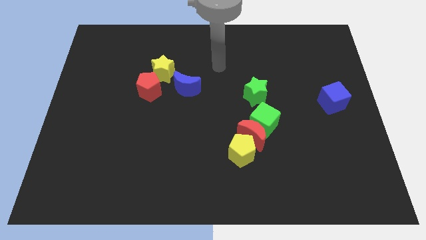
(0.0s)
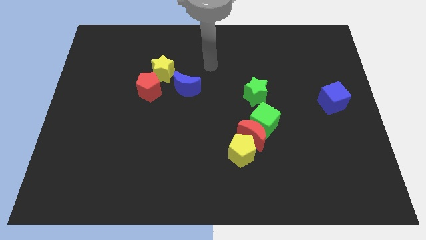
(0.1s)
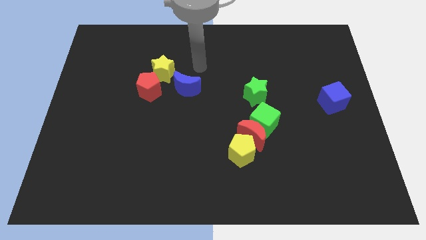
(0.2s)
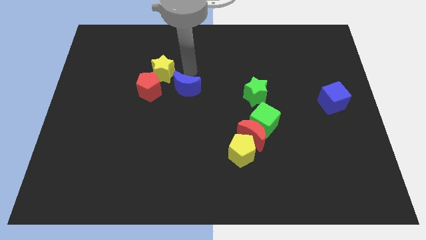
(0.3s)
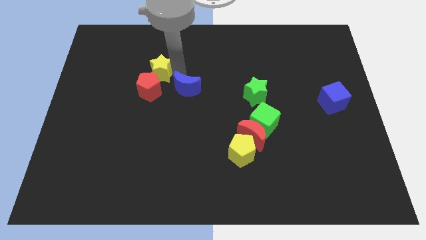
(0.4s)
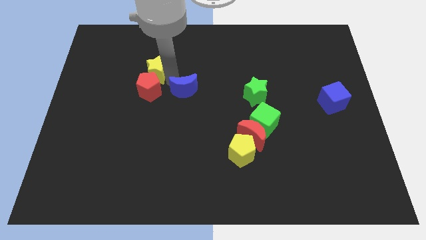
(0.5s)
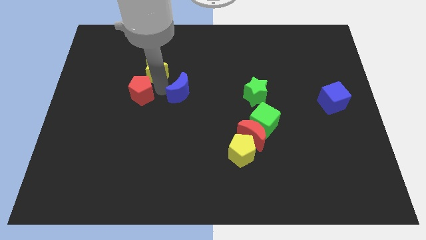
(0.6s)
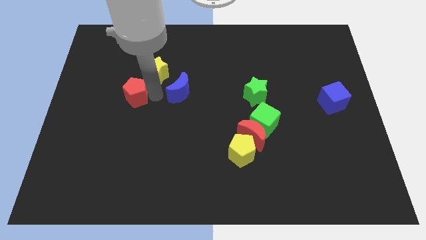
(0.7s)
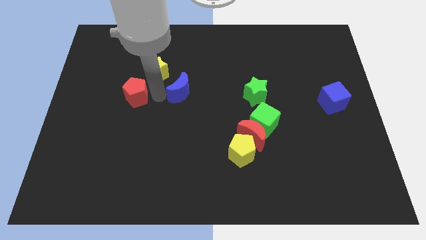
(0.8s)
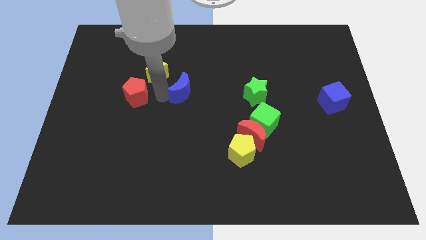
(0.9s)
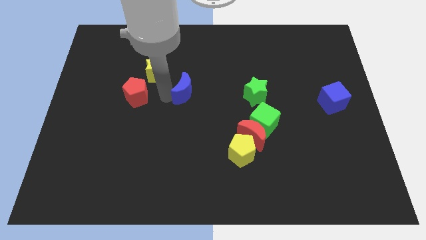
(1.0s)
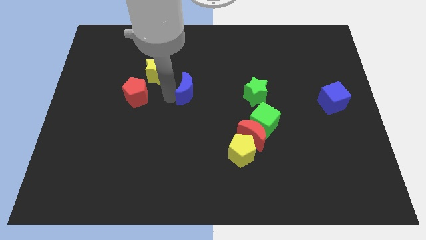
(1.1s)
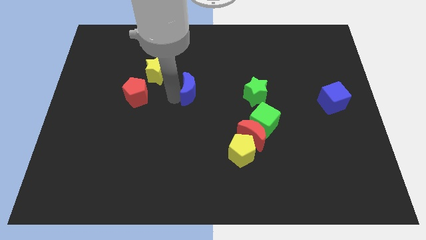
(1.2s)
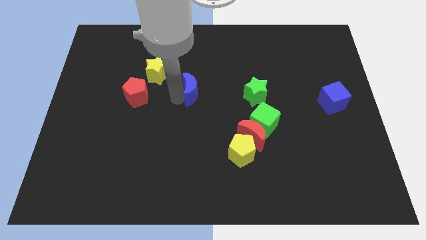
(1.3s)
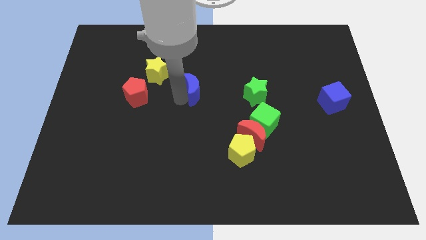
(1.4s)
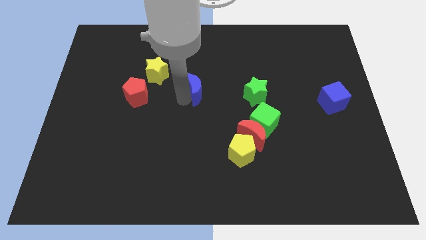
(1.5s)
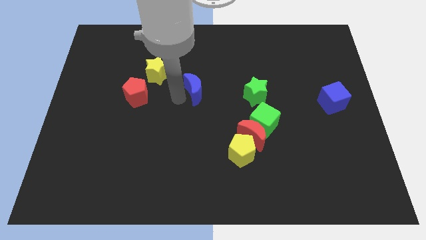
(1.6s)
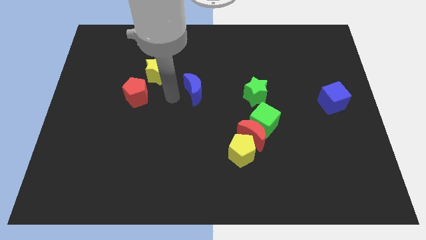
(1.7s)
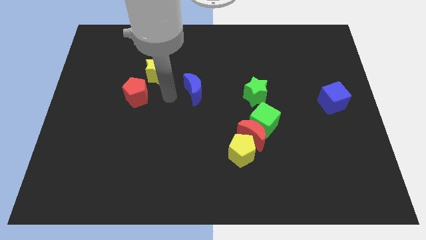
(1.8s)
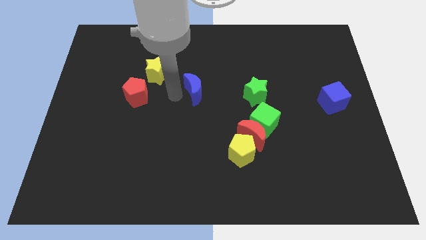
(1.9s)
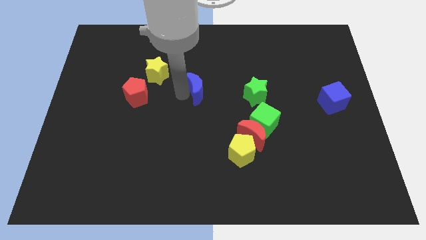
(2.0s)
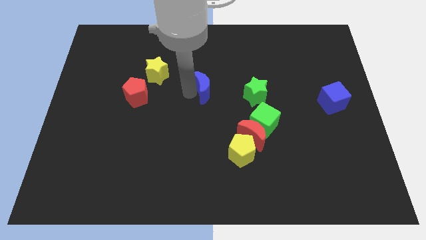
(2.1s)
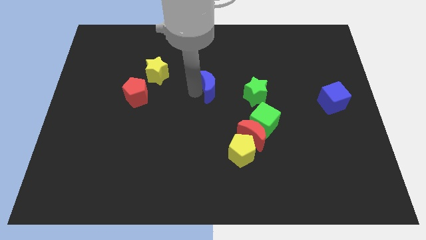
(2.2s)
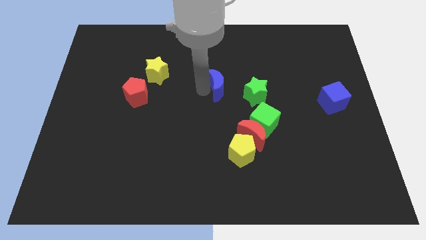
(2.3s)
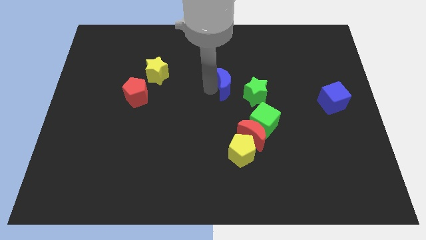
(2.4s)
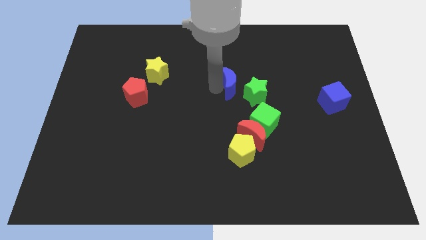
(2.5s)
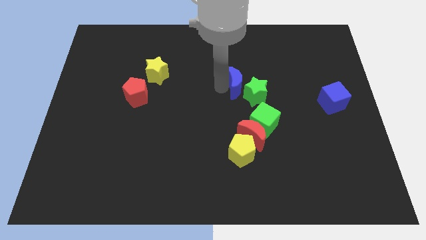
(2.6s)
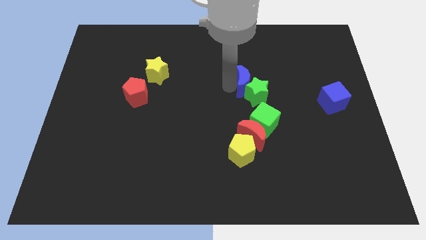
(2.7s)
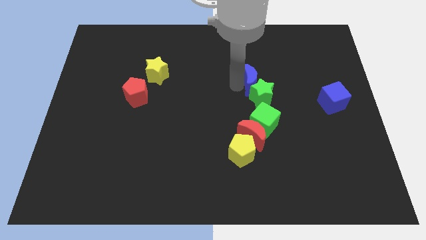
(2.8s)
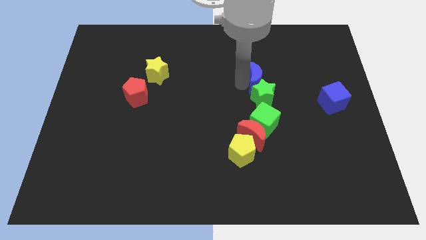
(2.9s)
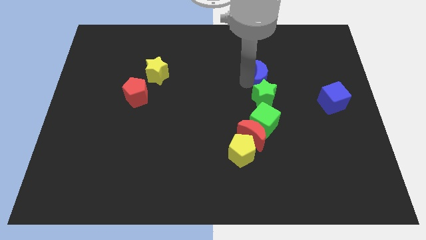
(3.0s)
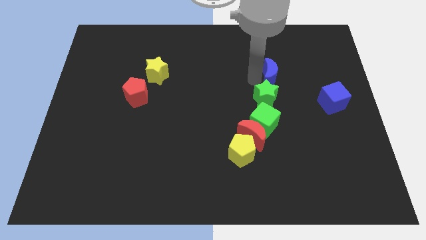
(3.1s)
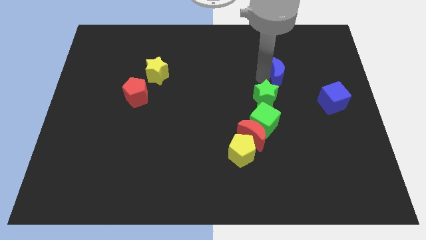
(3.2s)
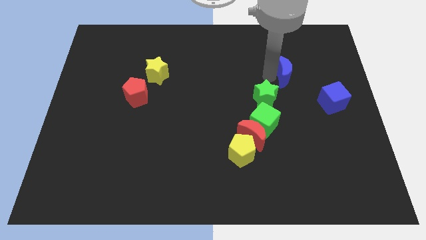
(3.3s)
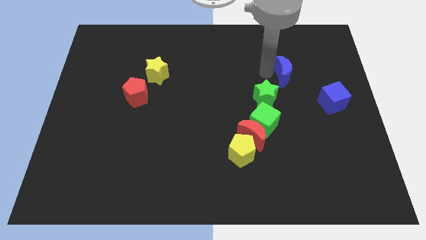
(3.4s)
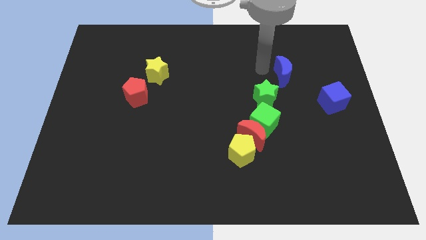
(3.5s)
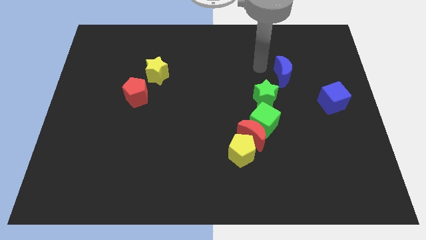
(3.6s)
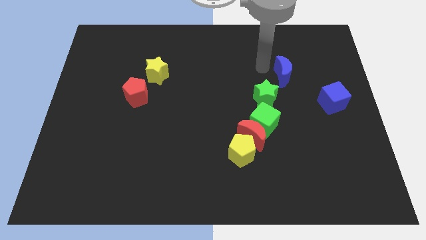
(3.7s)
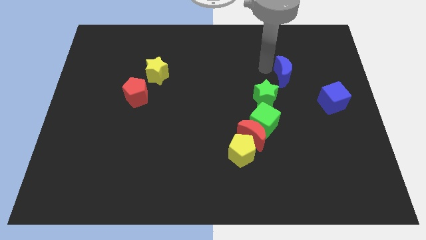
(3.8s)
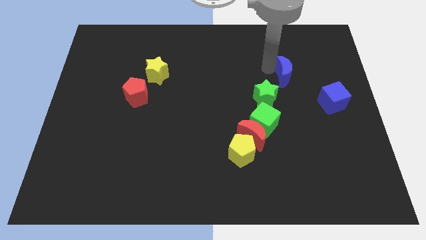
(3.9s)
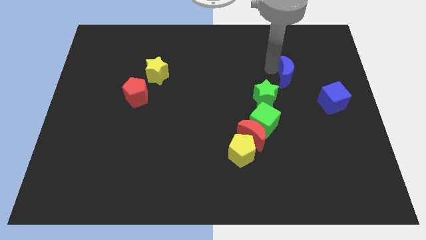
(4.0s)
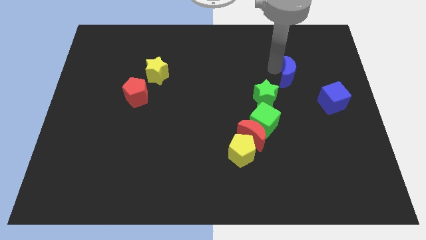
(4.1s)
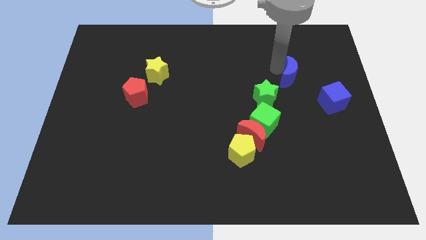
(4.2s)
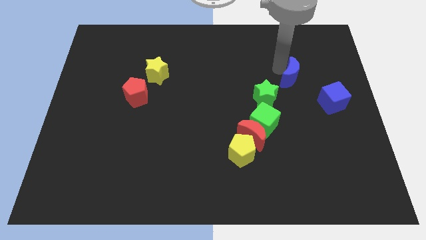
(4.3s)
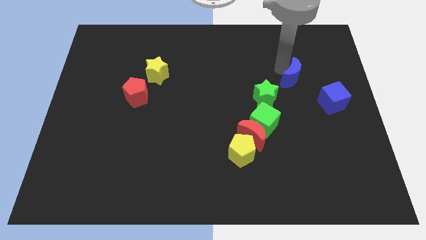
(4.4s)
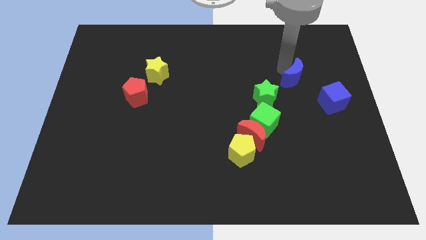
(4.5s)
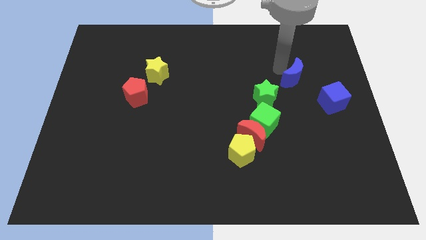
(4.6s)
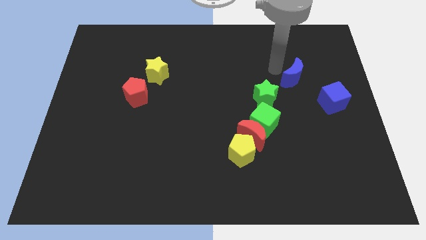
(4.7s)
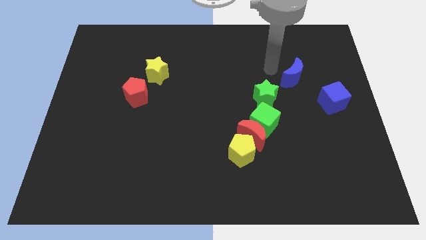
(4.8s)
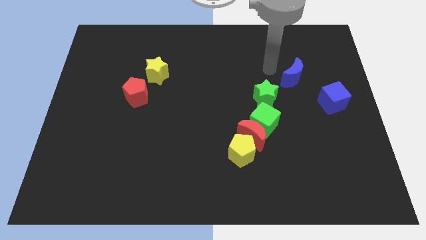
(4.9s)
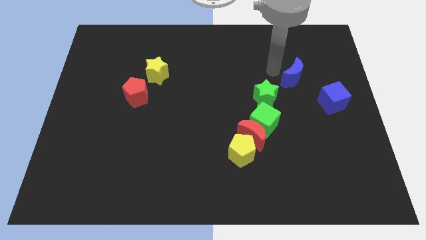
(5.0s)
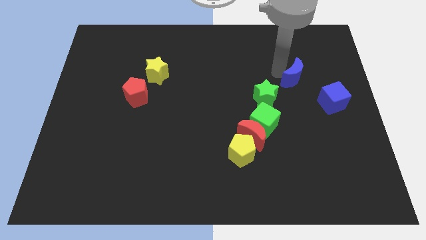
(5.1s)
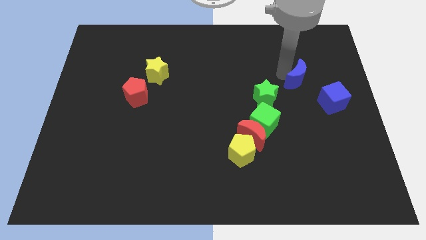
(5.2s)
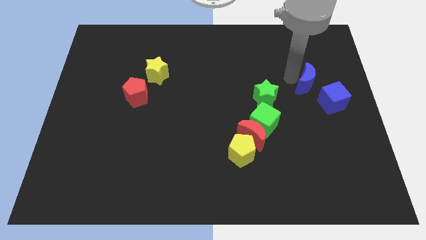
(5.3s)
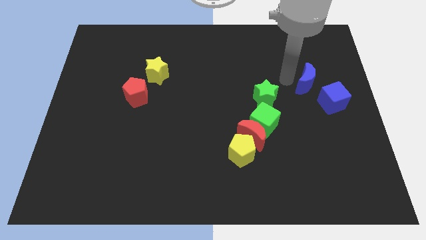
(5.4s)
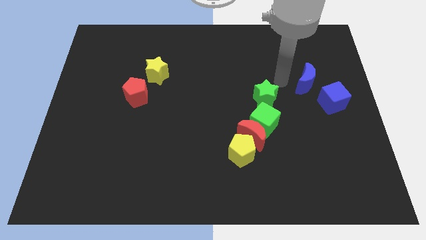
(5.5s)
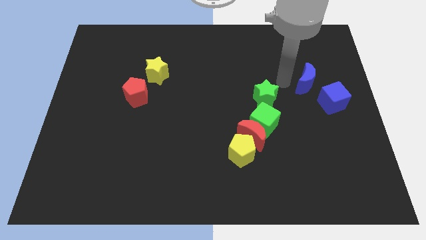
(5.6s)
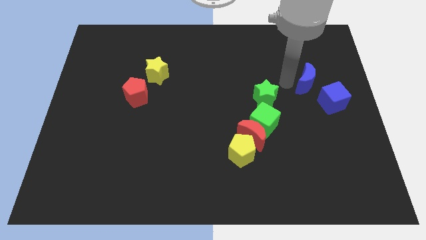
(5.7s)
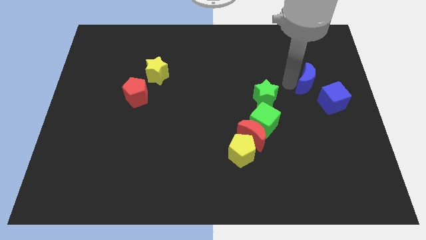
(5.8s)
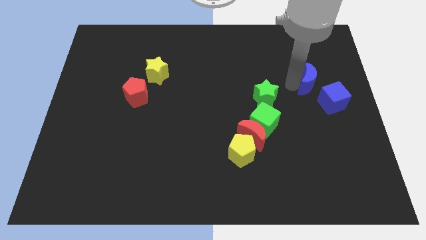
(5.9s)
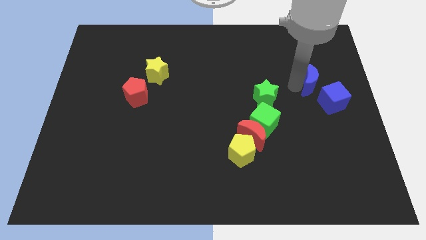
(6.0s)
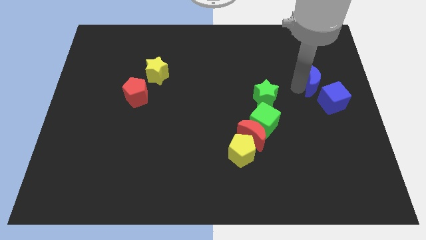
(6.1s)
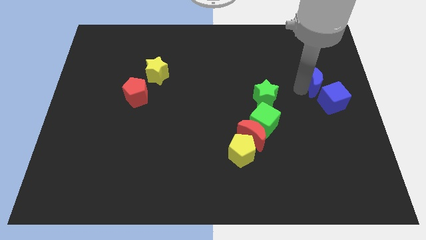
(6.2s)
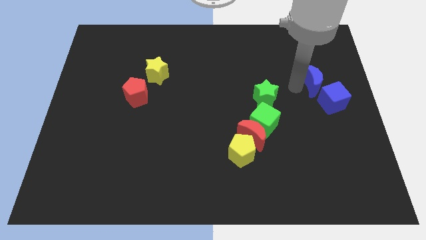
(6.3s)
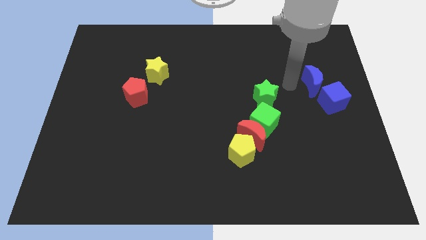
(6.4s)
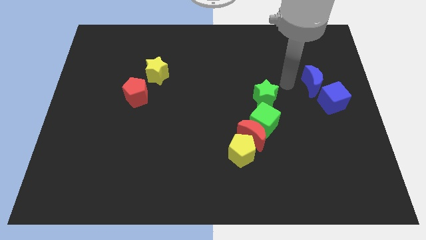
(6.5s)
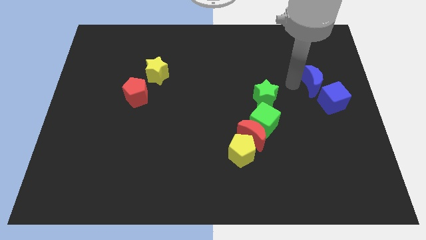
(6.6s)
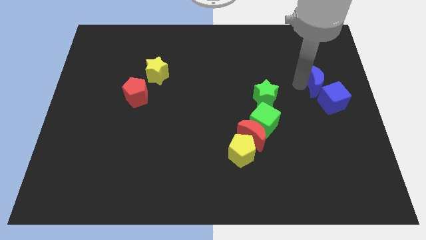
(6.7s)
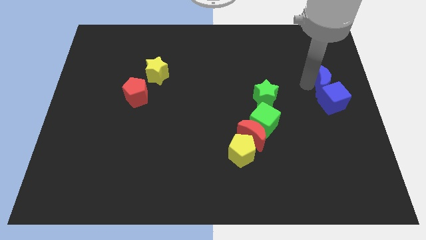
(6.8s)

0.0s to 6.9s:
push the blue moon to the right side of the board
